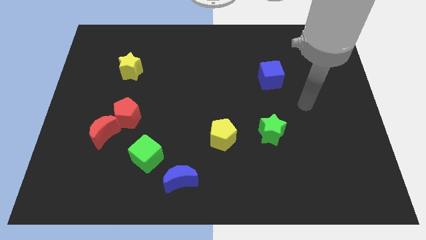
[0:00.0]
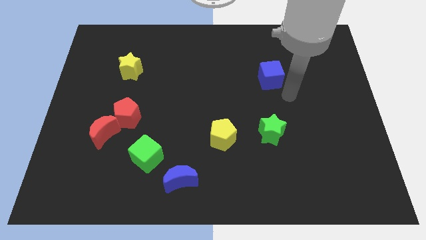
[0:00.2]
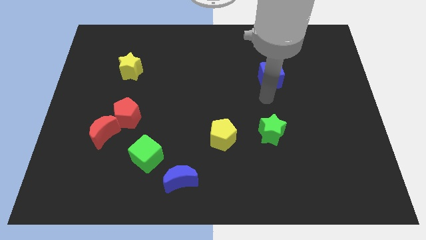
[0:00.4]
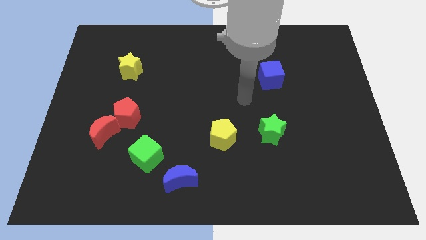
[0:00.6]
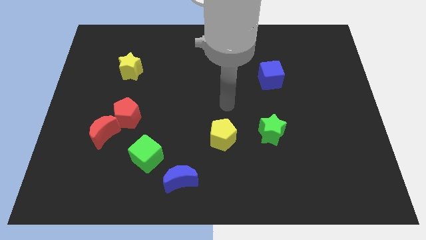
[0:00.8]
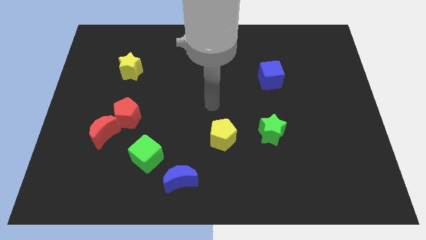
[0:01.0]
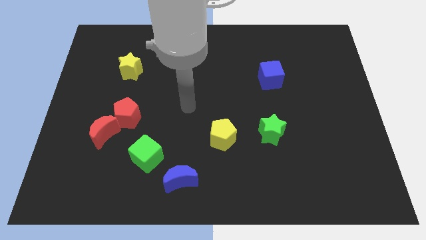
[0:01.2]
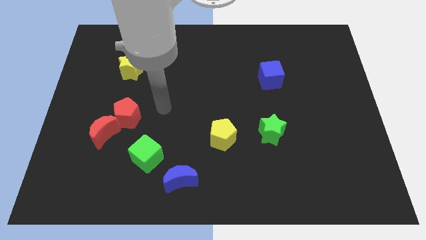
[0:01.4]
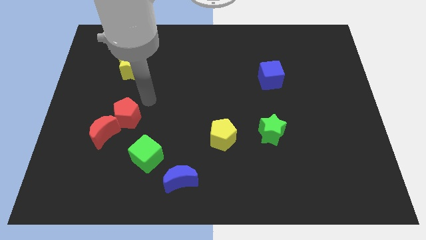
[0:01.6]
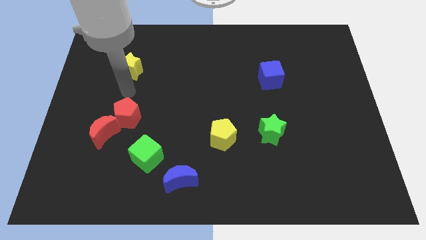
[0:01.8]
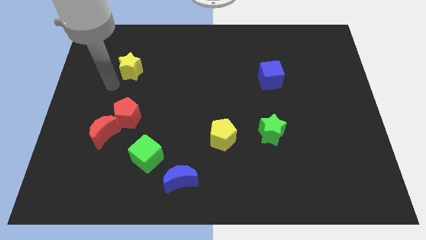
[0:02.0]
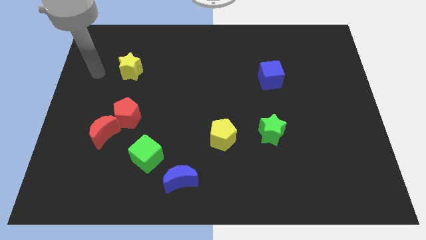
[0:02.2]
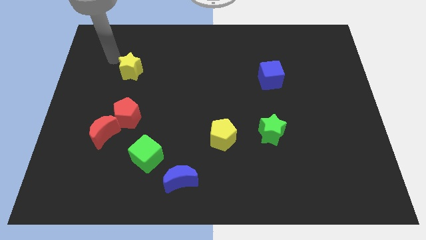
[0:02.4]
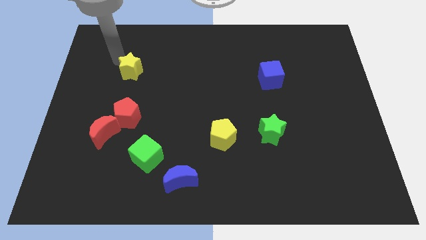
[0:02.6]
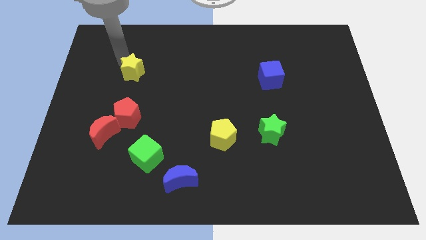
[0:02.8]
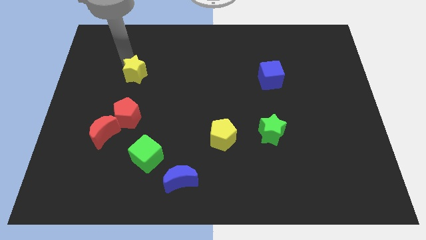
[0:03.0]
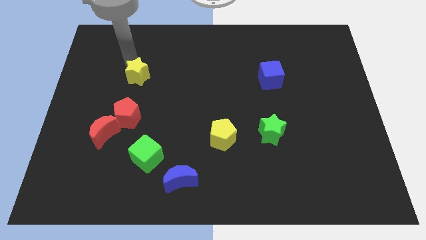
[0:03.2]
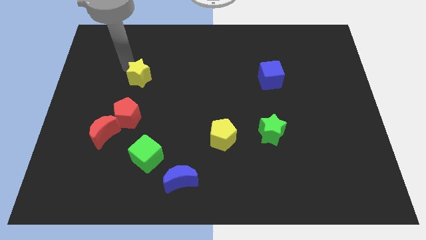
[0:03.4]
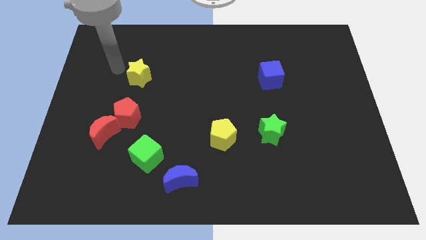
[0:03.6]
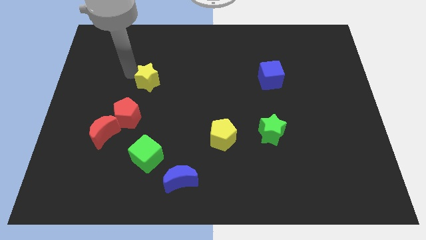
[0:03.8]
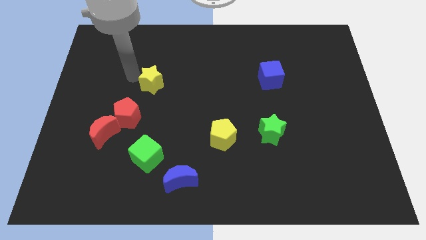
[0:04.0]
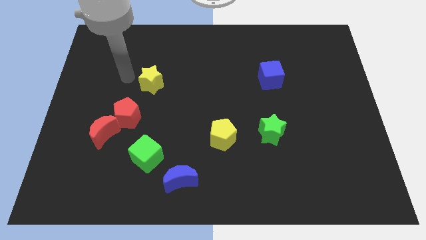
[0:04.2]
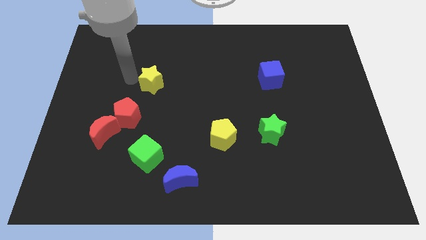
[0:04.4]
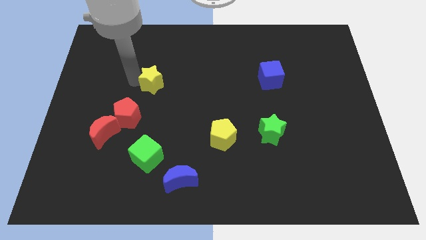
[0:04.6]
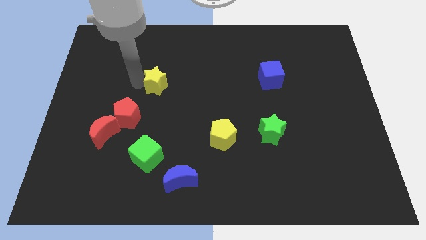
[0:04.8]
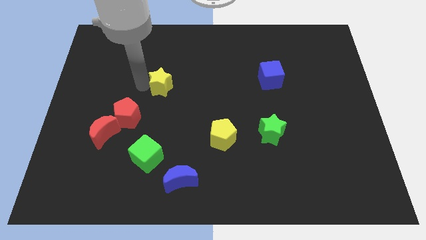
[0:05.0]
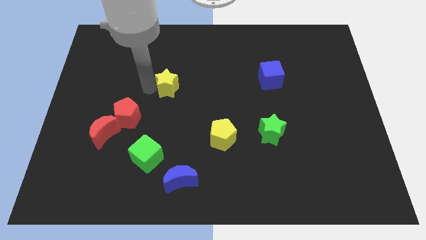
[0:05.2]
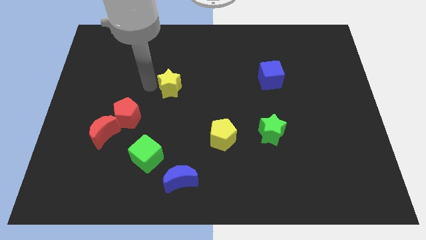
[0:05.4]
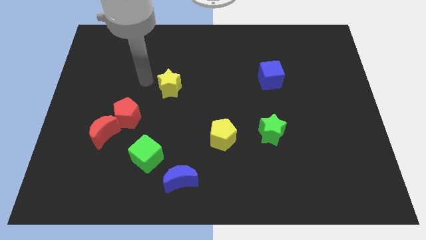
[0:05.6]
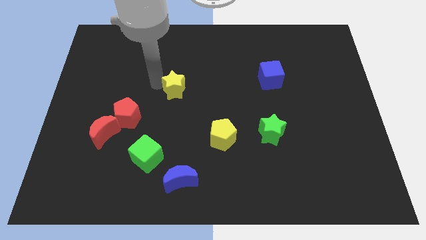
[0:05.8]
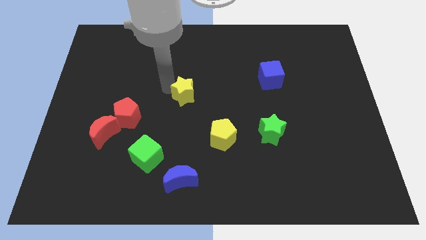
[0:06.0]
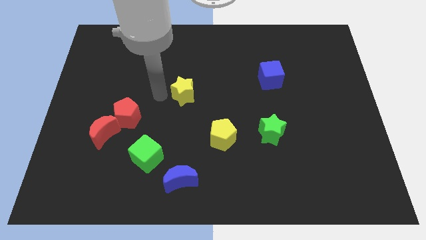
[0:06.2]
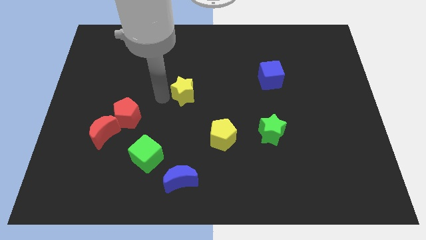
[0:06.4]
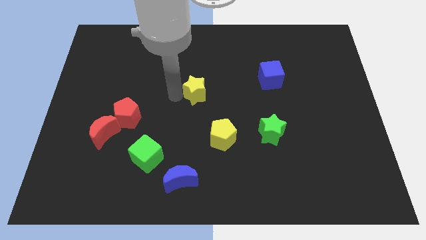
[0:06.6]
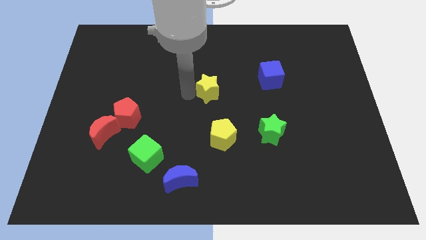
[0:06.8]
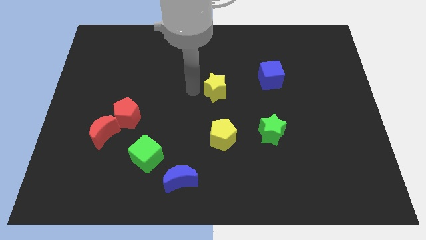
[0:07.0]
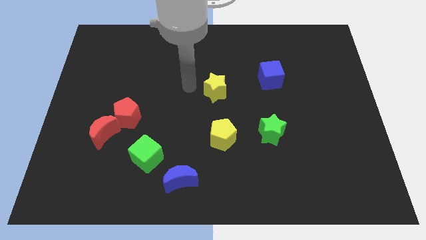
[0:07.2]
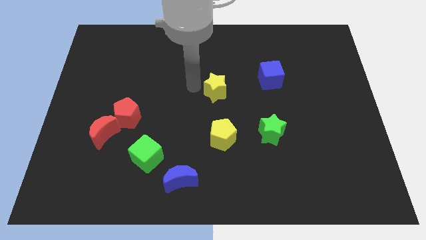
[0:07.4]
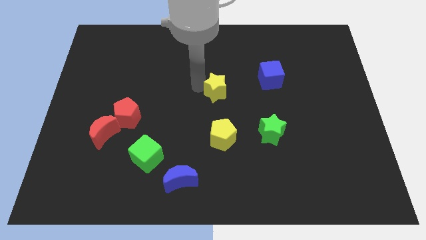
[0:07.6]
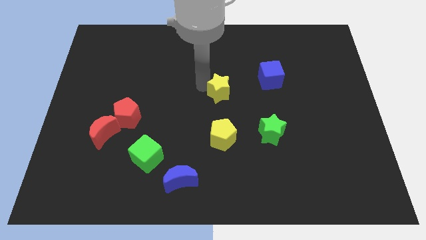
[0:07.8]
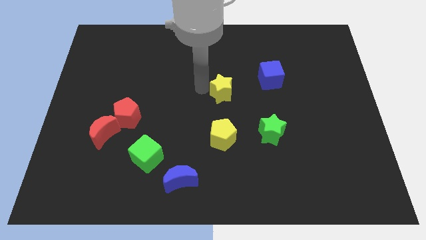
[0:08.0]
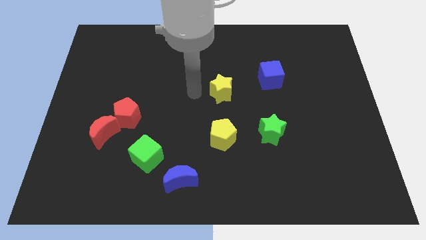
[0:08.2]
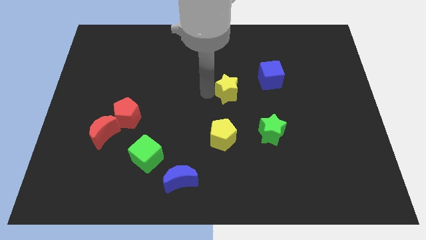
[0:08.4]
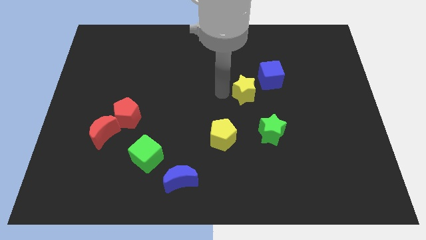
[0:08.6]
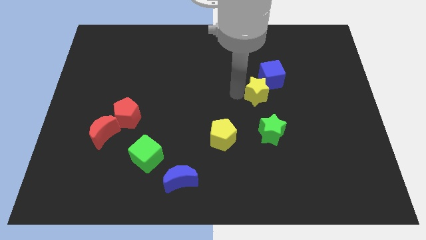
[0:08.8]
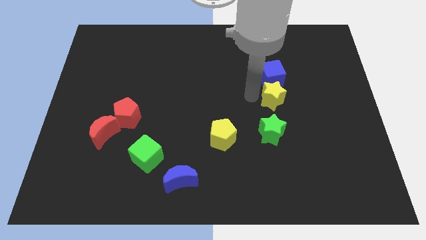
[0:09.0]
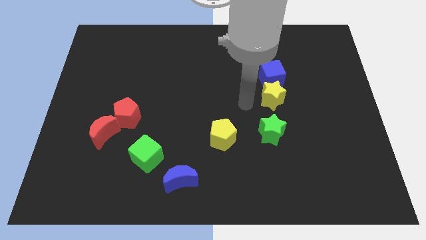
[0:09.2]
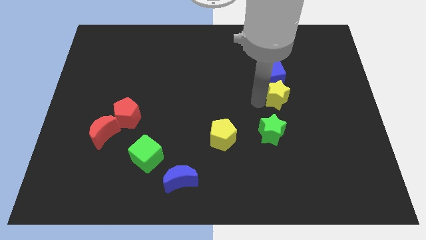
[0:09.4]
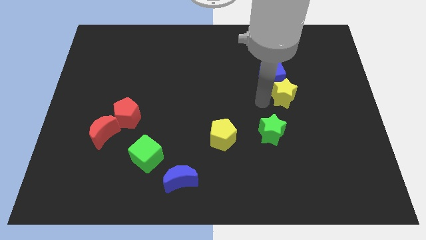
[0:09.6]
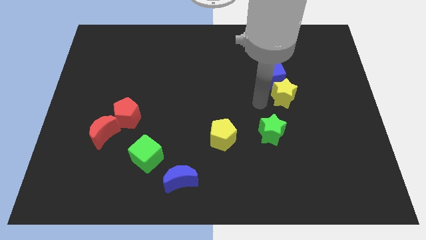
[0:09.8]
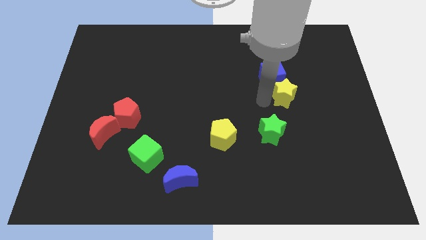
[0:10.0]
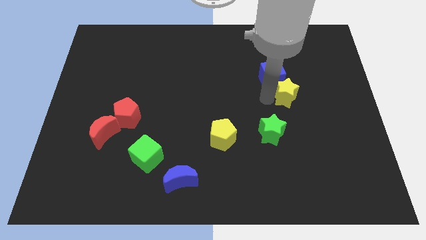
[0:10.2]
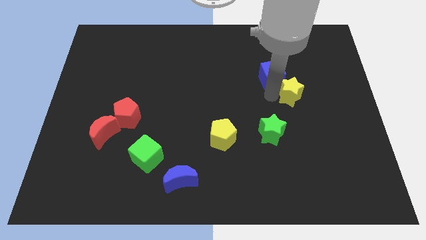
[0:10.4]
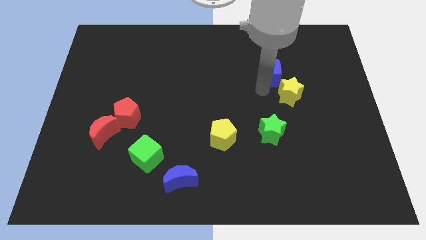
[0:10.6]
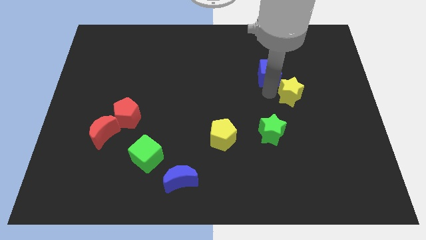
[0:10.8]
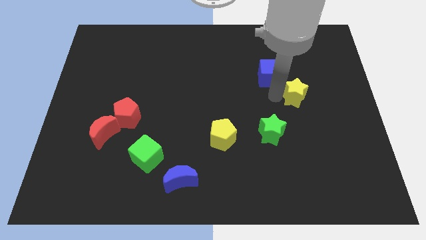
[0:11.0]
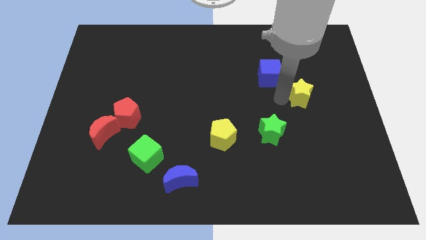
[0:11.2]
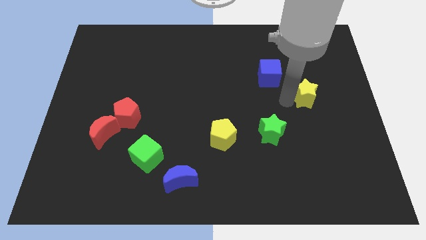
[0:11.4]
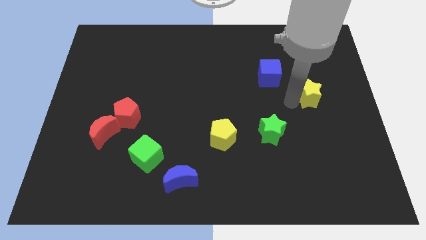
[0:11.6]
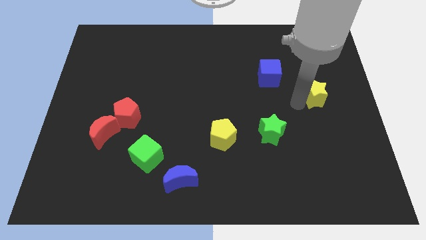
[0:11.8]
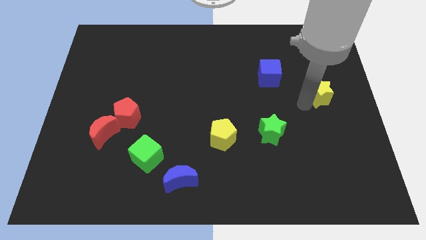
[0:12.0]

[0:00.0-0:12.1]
slide the yellow star to the center right

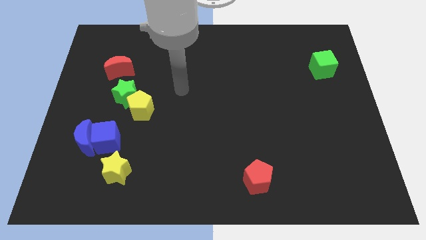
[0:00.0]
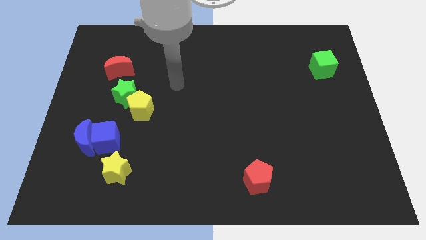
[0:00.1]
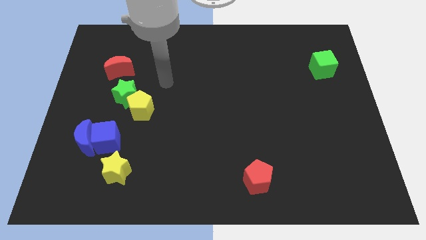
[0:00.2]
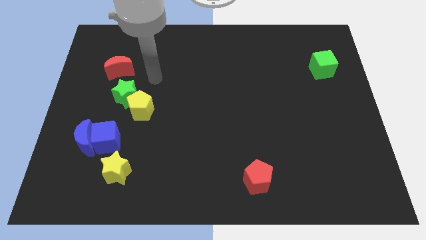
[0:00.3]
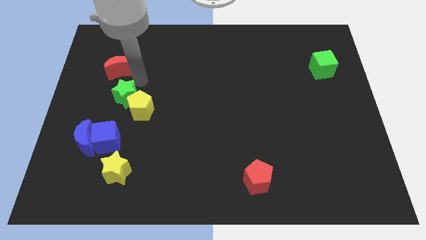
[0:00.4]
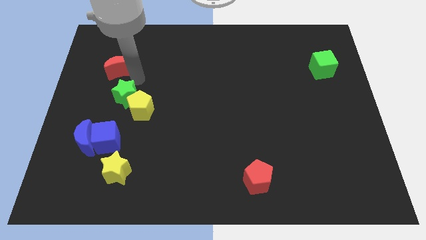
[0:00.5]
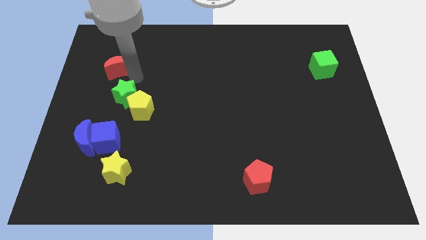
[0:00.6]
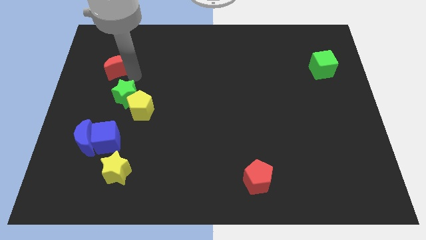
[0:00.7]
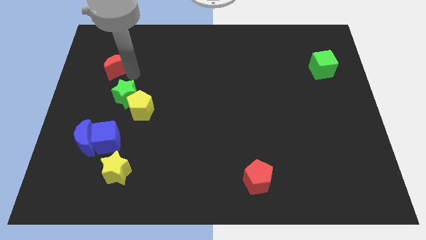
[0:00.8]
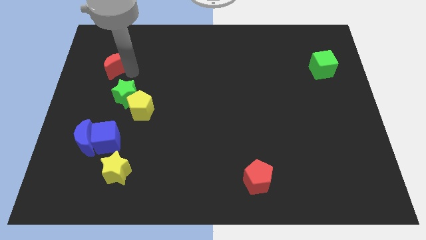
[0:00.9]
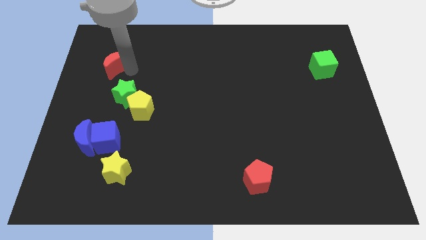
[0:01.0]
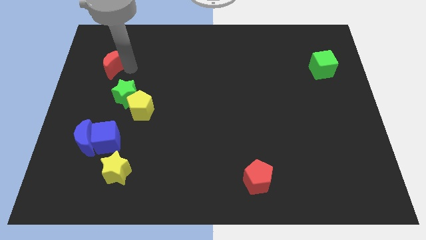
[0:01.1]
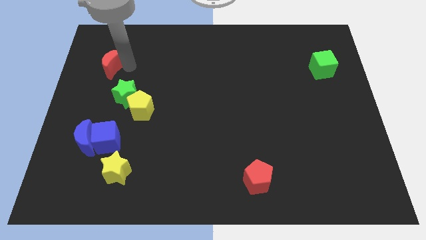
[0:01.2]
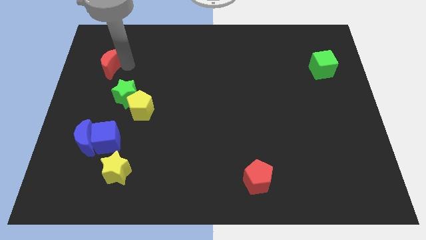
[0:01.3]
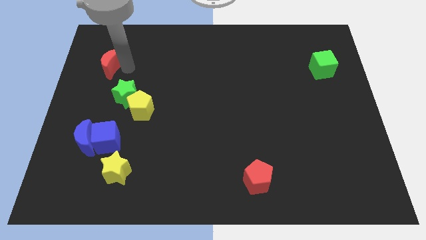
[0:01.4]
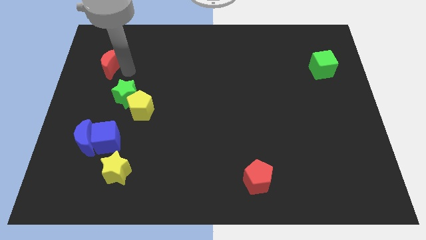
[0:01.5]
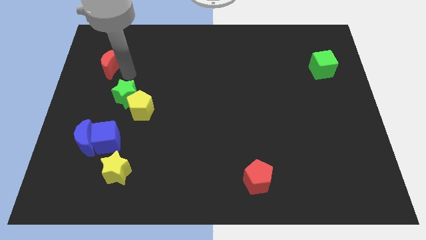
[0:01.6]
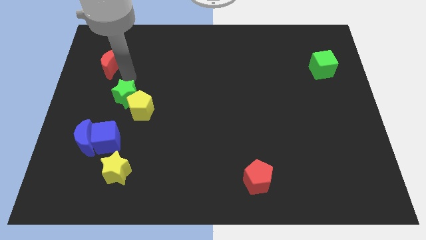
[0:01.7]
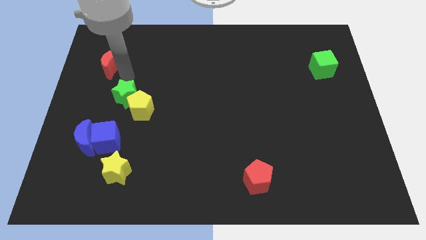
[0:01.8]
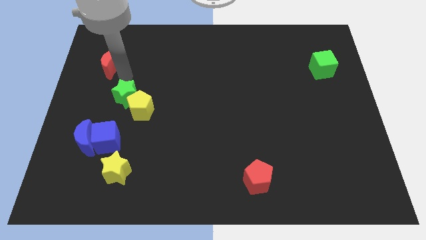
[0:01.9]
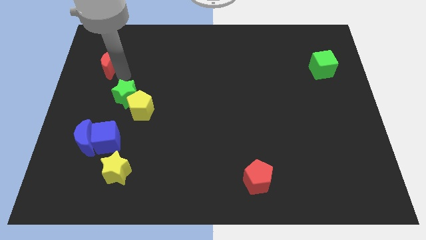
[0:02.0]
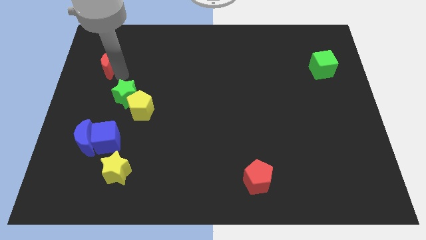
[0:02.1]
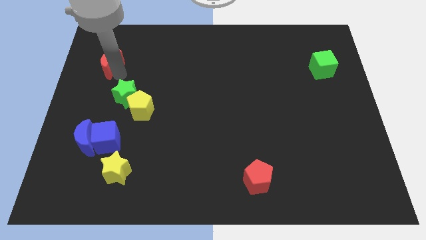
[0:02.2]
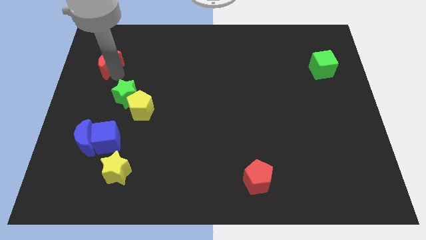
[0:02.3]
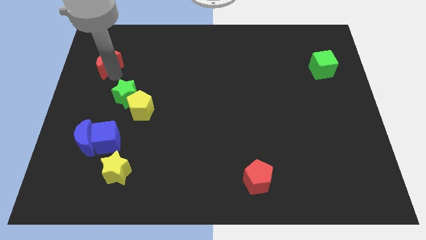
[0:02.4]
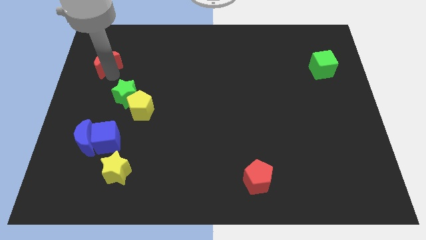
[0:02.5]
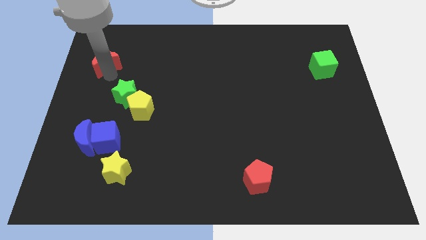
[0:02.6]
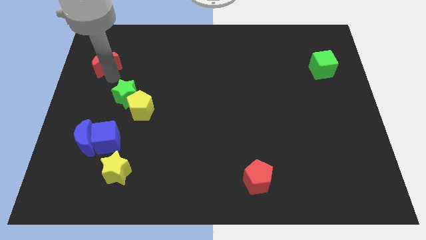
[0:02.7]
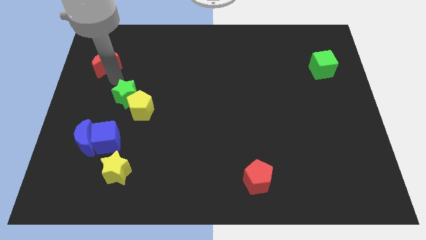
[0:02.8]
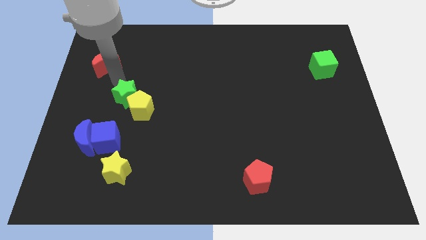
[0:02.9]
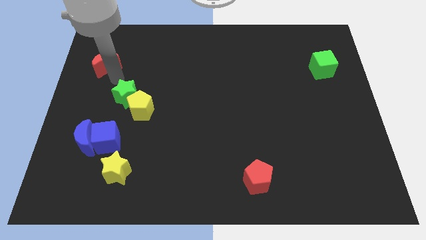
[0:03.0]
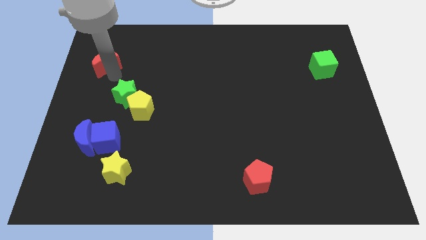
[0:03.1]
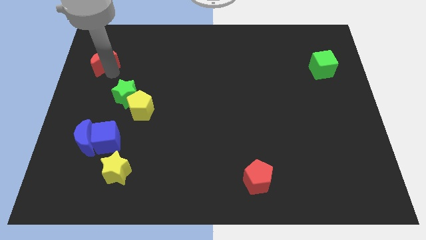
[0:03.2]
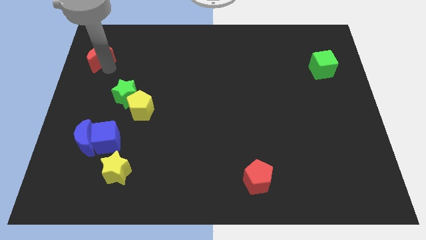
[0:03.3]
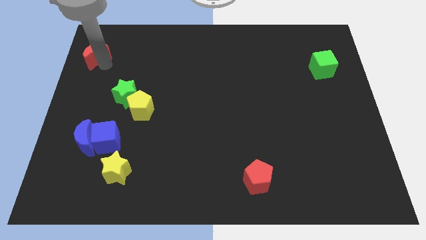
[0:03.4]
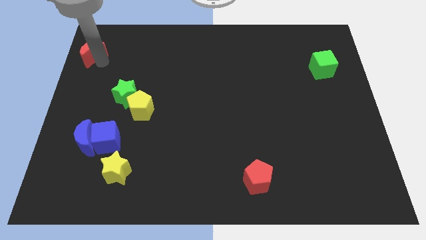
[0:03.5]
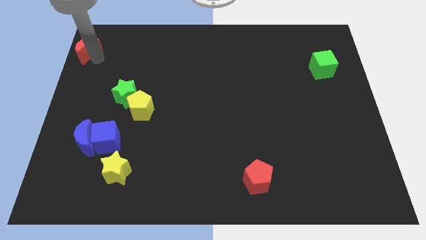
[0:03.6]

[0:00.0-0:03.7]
slide the red moon to the top left corner
